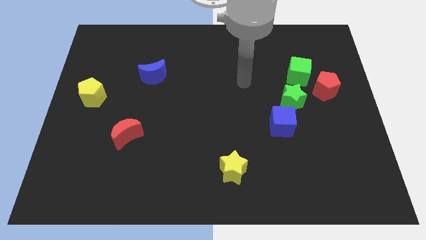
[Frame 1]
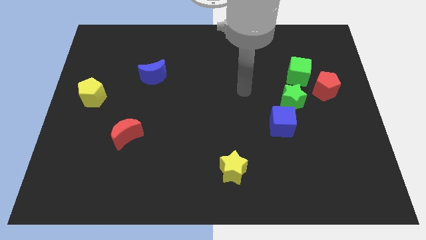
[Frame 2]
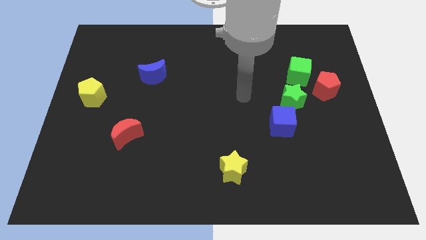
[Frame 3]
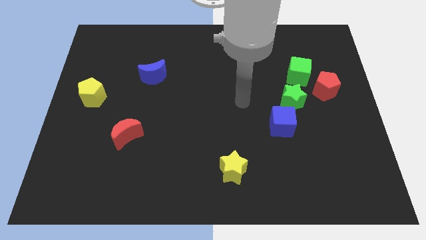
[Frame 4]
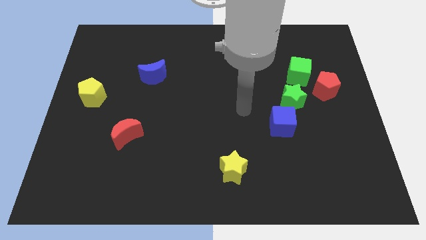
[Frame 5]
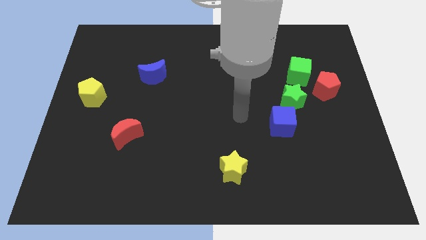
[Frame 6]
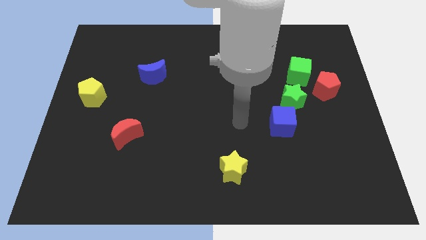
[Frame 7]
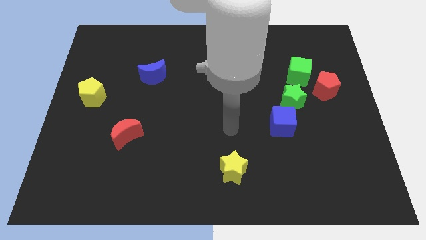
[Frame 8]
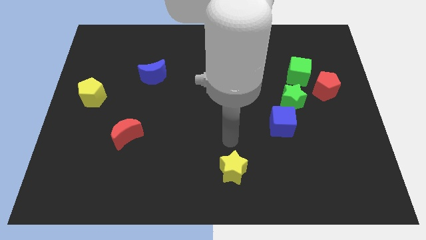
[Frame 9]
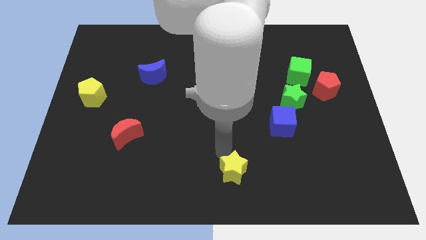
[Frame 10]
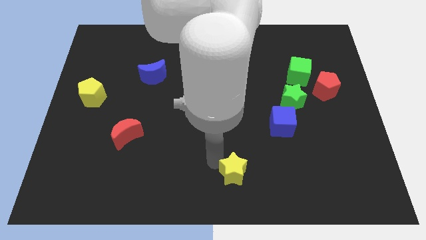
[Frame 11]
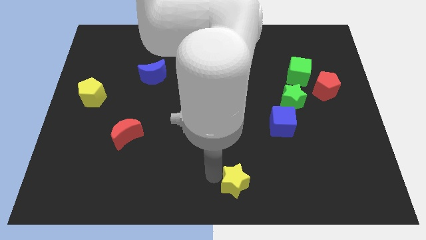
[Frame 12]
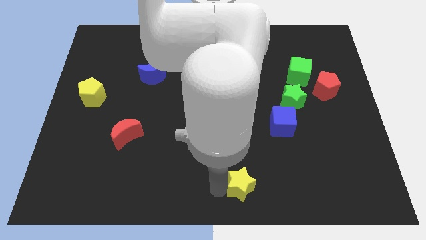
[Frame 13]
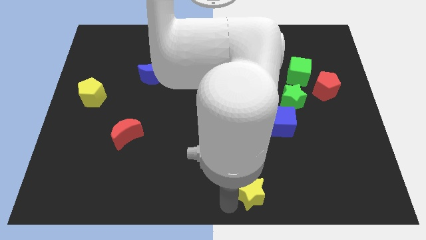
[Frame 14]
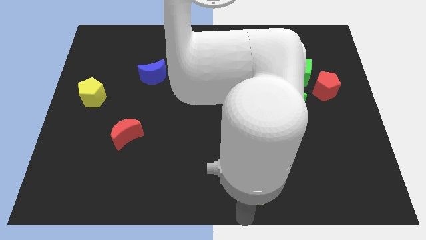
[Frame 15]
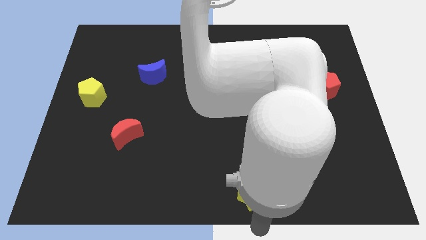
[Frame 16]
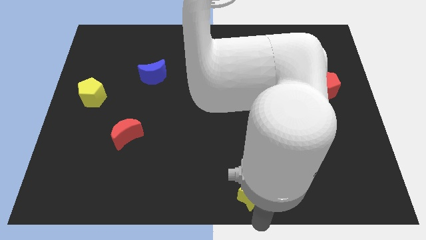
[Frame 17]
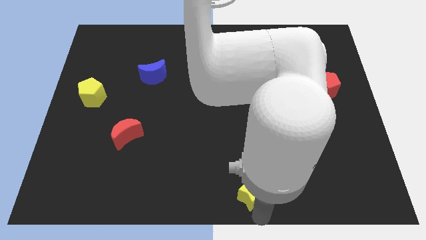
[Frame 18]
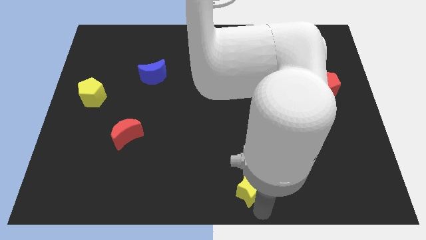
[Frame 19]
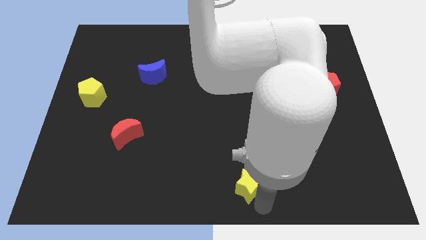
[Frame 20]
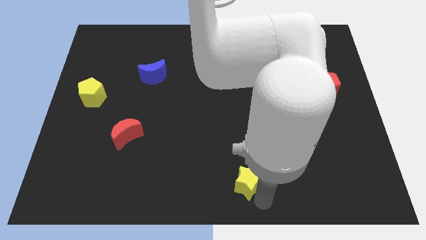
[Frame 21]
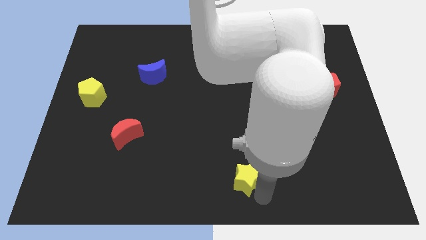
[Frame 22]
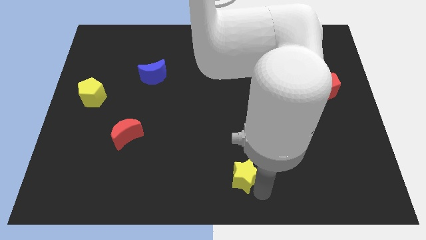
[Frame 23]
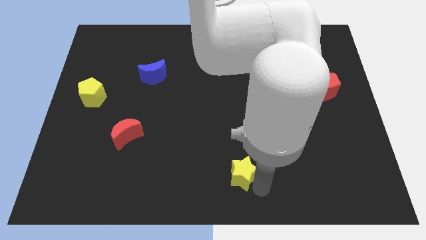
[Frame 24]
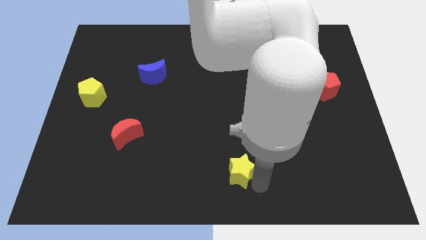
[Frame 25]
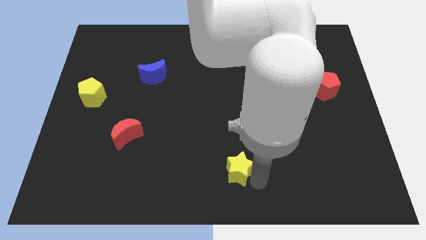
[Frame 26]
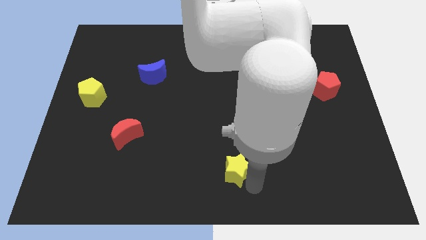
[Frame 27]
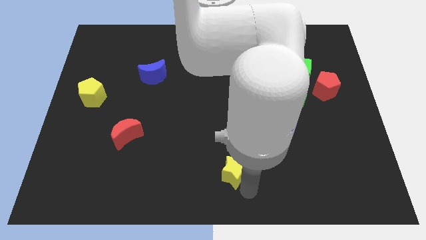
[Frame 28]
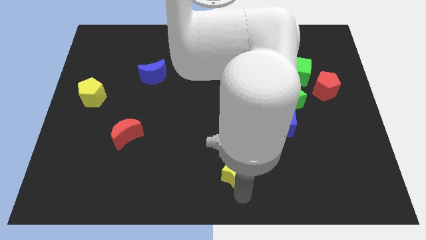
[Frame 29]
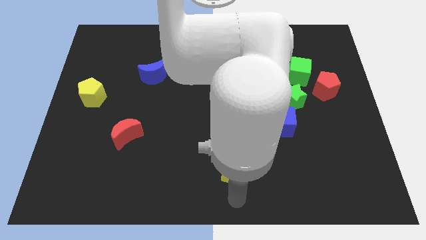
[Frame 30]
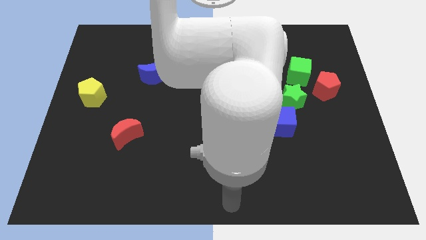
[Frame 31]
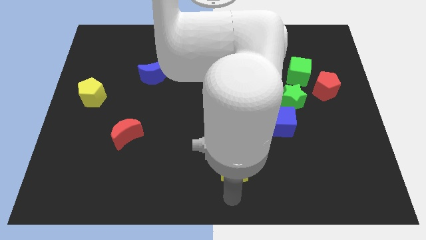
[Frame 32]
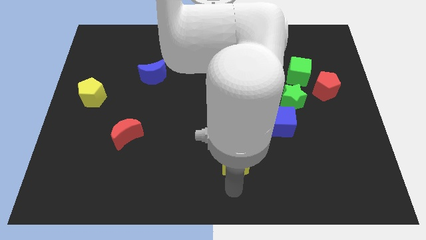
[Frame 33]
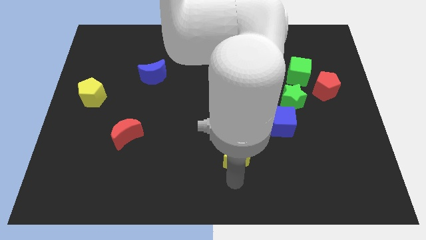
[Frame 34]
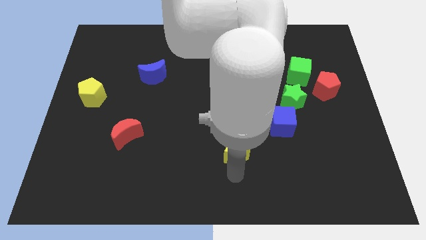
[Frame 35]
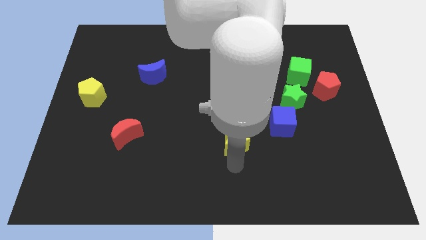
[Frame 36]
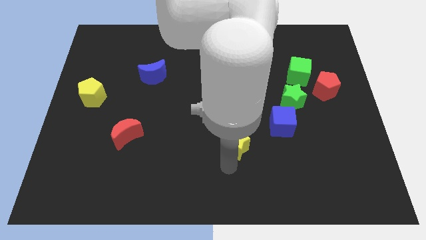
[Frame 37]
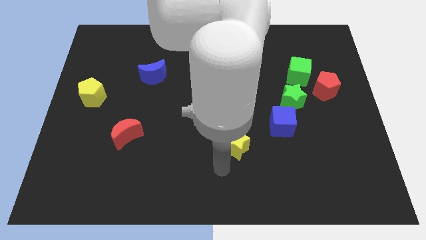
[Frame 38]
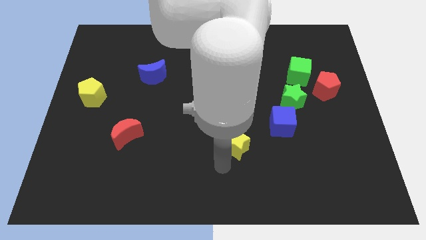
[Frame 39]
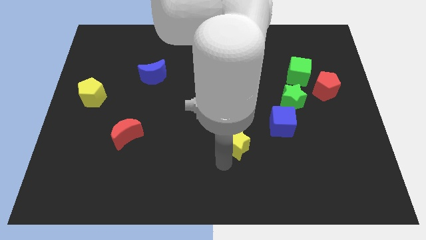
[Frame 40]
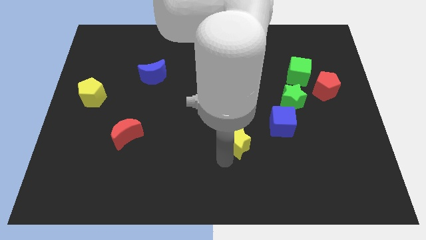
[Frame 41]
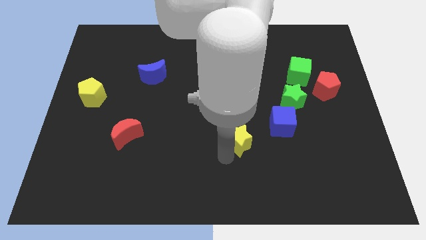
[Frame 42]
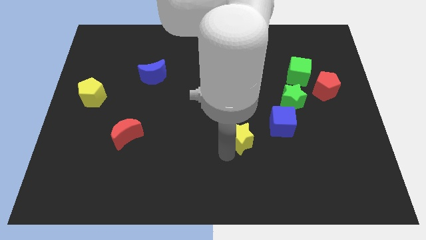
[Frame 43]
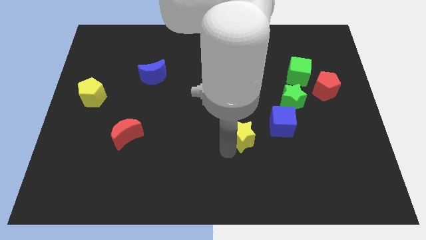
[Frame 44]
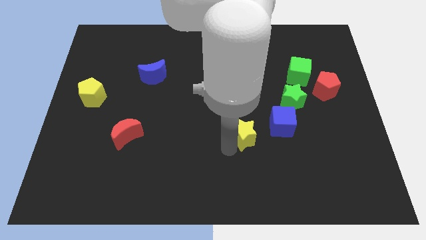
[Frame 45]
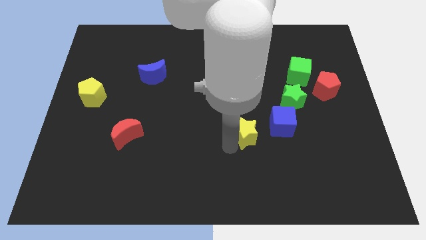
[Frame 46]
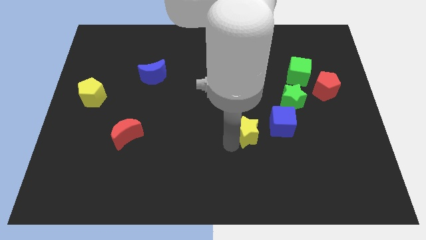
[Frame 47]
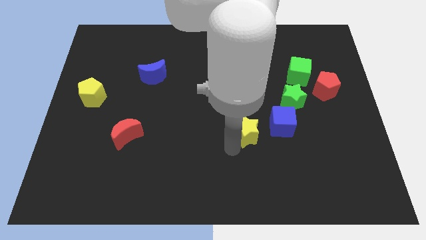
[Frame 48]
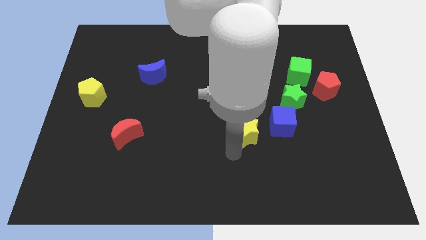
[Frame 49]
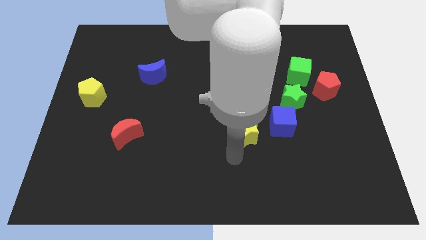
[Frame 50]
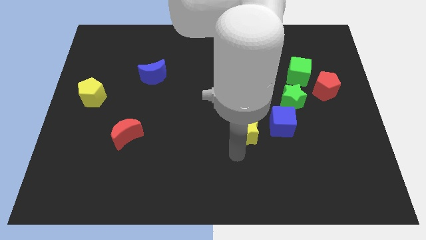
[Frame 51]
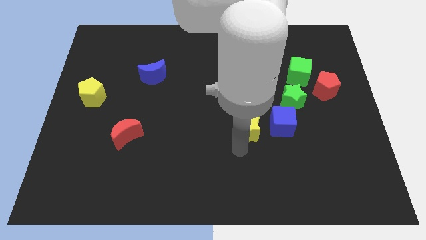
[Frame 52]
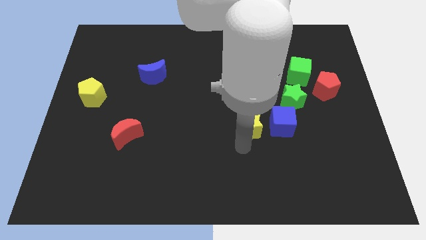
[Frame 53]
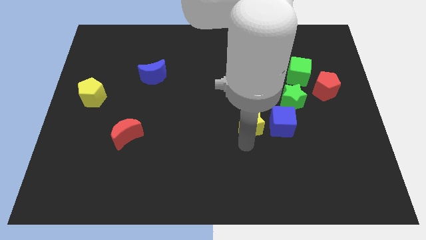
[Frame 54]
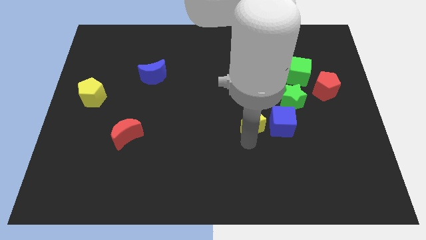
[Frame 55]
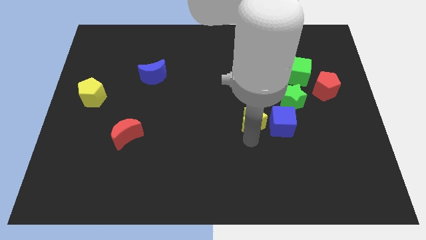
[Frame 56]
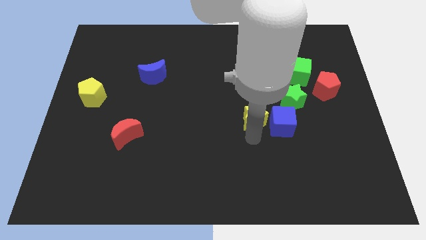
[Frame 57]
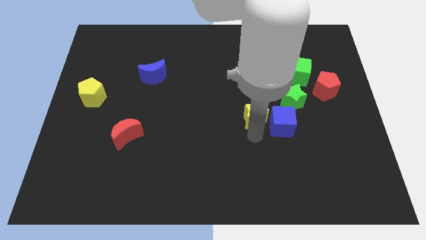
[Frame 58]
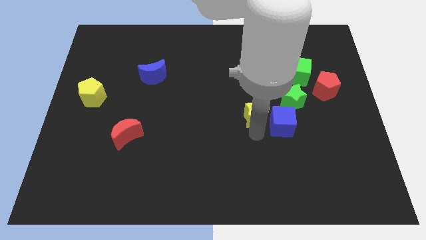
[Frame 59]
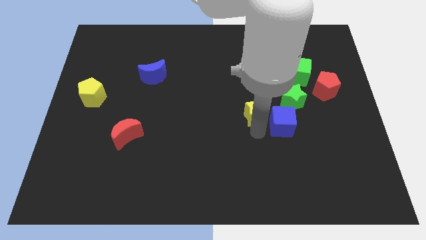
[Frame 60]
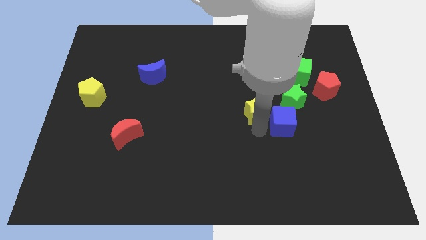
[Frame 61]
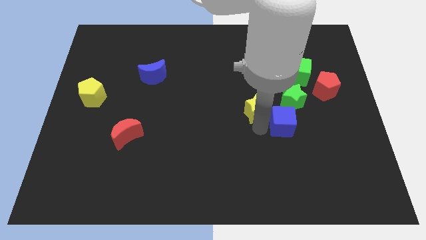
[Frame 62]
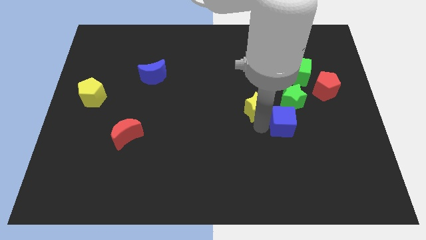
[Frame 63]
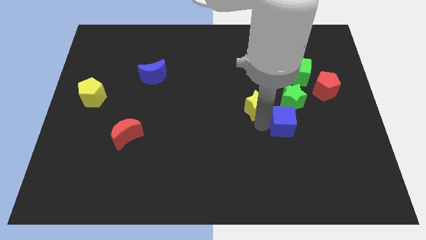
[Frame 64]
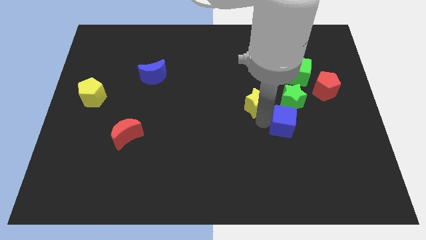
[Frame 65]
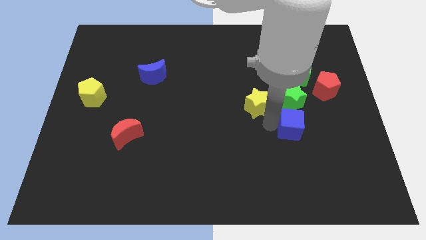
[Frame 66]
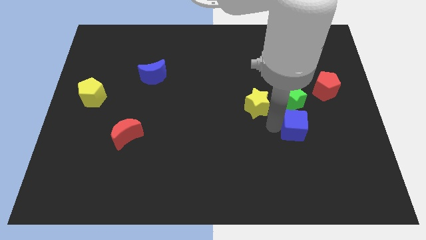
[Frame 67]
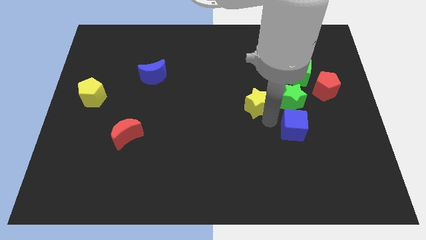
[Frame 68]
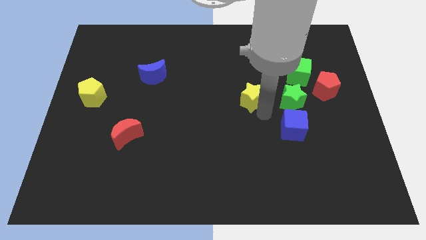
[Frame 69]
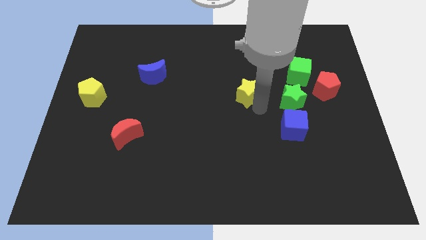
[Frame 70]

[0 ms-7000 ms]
push the yellow star up

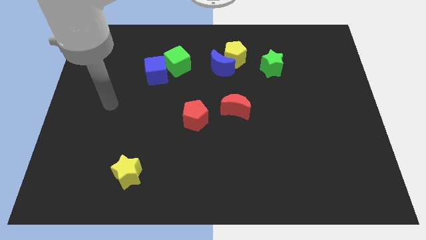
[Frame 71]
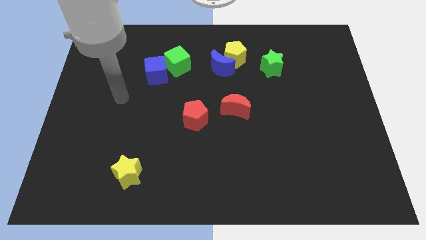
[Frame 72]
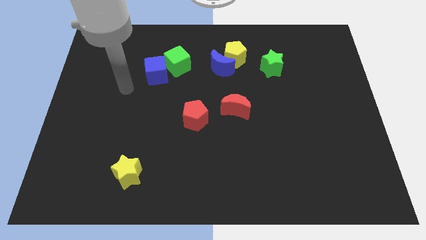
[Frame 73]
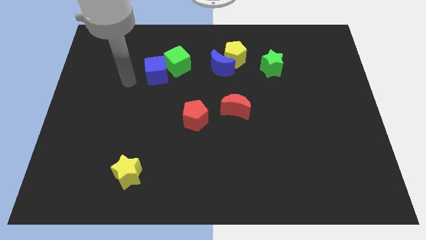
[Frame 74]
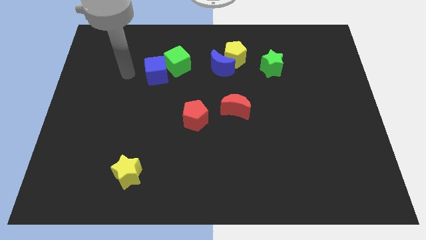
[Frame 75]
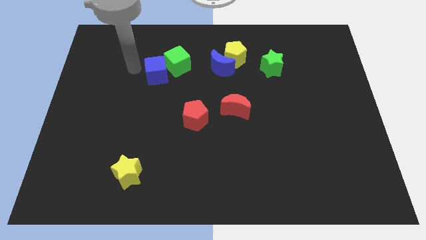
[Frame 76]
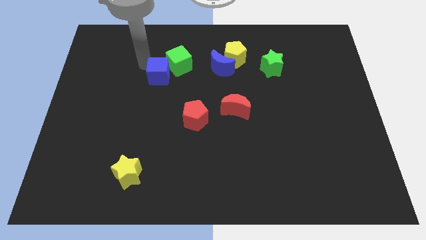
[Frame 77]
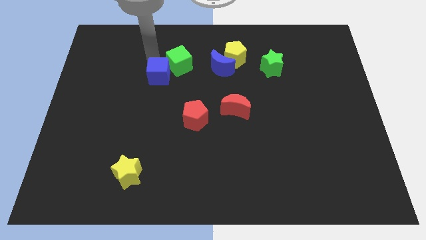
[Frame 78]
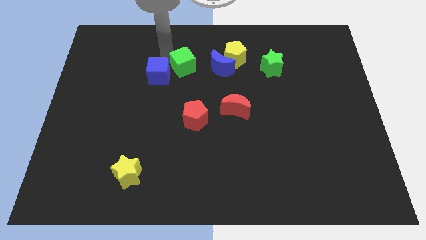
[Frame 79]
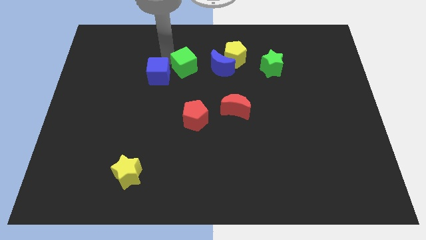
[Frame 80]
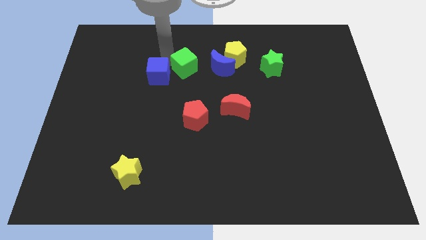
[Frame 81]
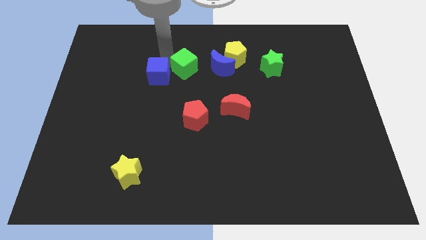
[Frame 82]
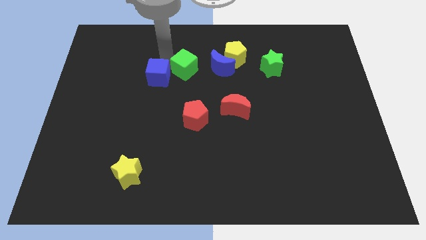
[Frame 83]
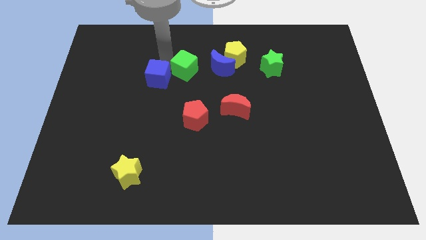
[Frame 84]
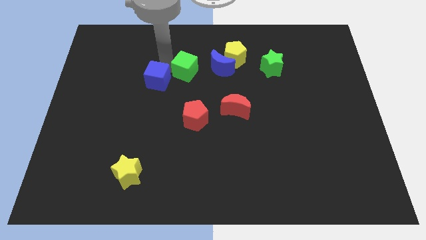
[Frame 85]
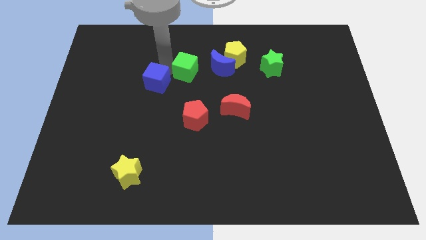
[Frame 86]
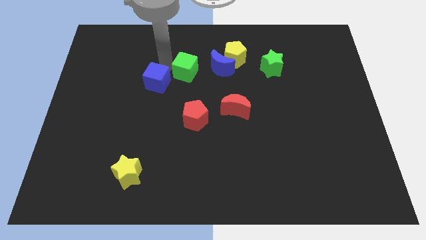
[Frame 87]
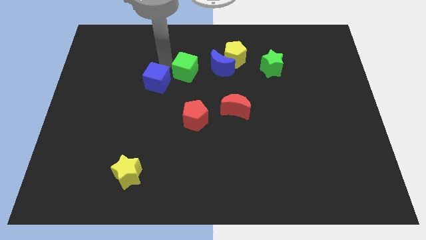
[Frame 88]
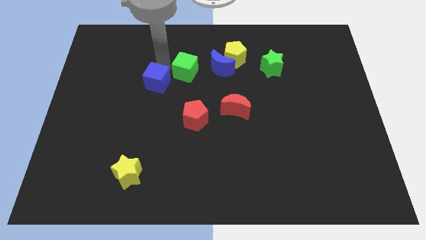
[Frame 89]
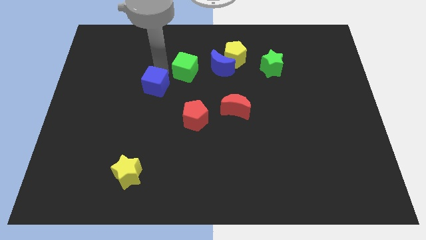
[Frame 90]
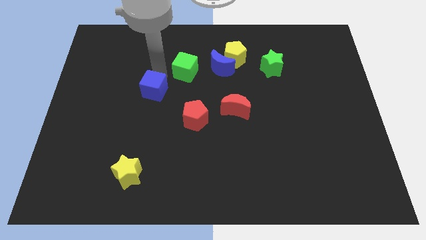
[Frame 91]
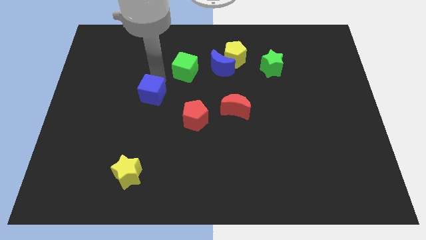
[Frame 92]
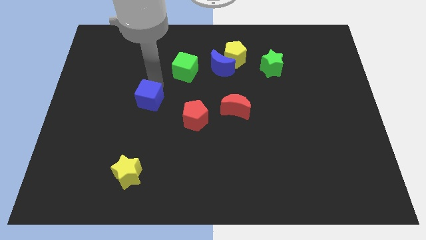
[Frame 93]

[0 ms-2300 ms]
slightly move the blue cube down
